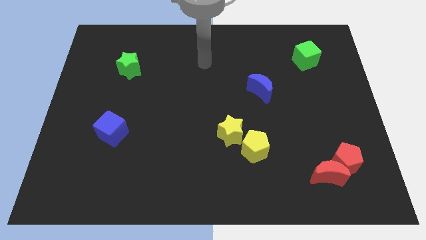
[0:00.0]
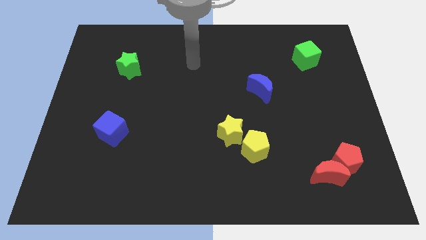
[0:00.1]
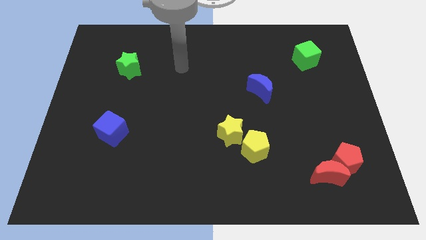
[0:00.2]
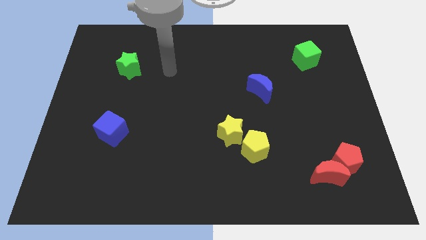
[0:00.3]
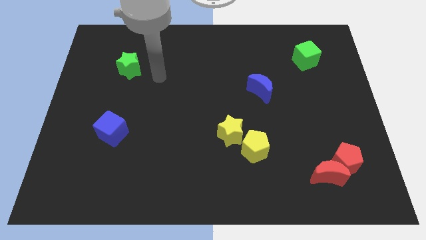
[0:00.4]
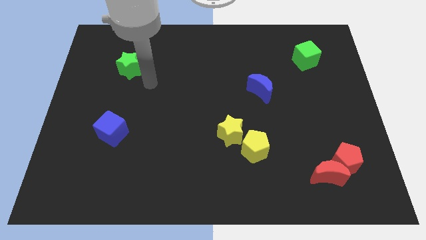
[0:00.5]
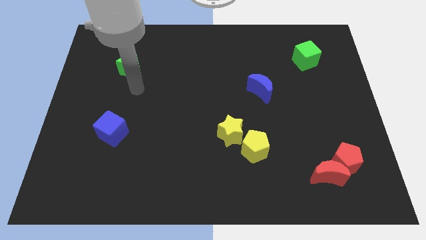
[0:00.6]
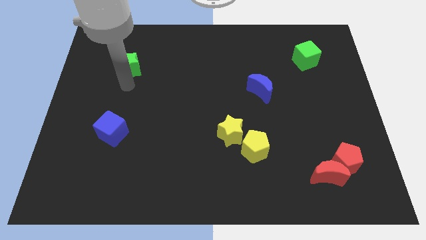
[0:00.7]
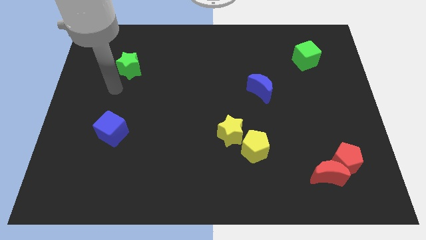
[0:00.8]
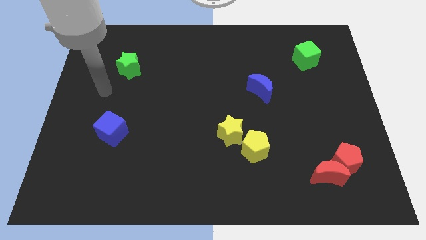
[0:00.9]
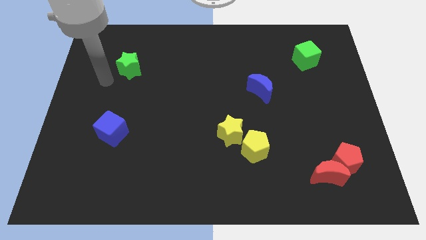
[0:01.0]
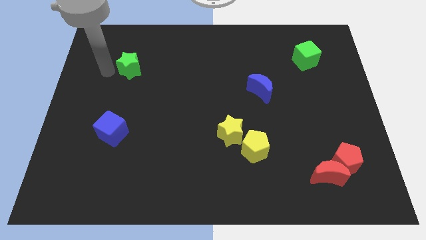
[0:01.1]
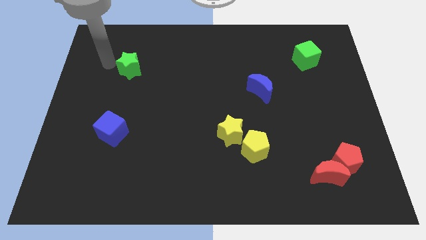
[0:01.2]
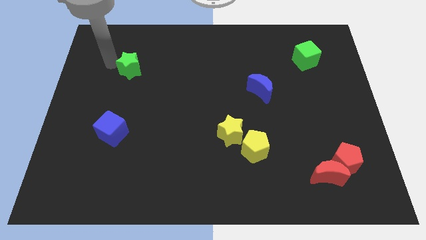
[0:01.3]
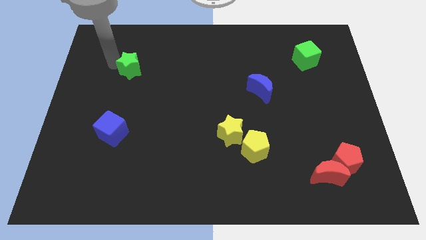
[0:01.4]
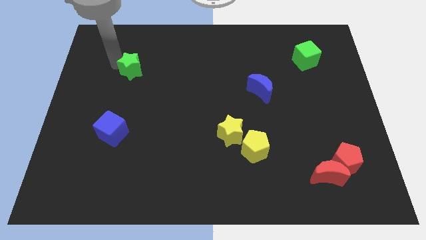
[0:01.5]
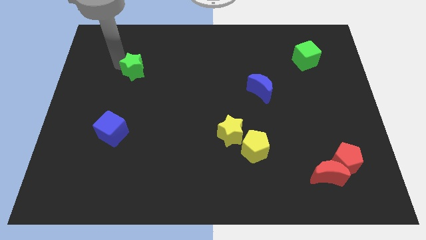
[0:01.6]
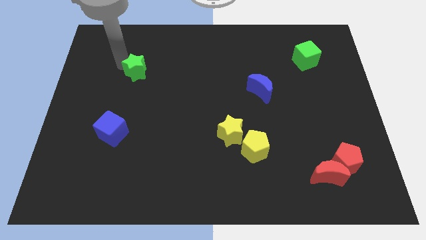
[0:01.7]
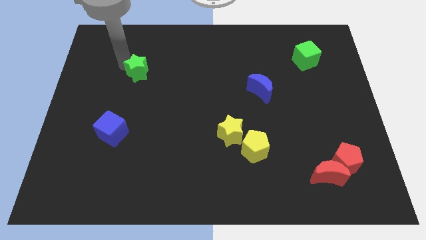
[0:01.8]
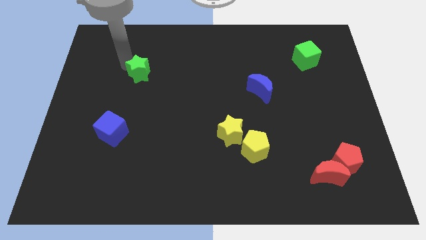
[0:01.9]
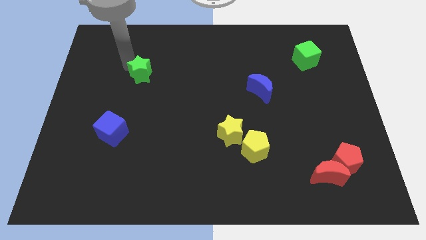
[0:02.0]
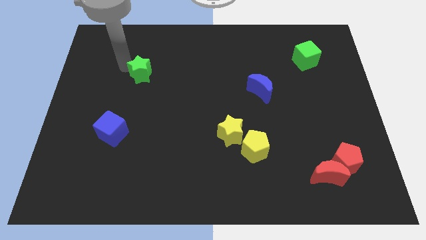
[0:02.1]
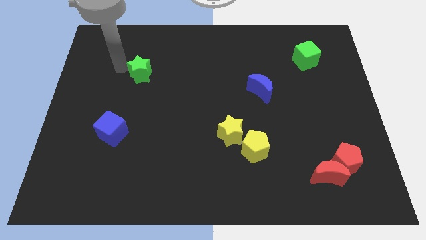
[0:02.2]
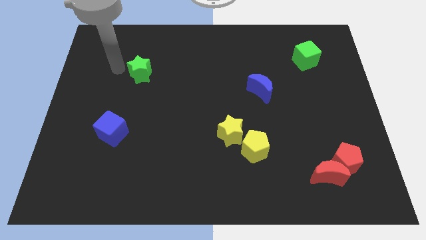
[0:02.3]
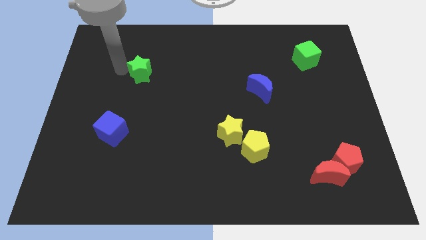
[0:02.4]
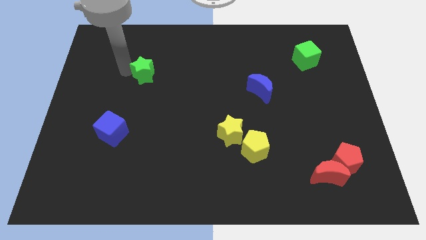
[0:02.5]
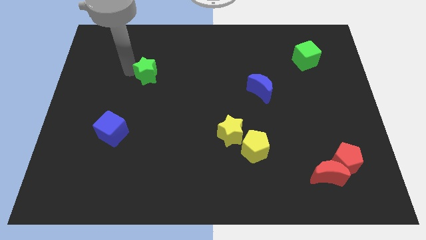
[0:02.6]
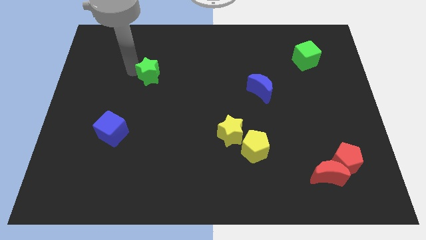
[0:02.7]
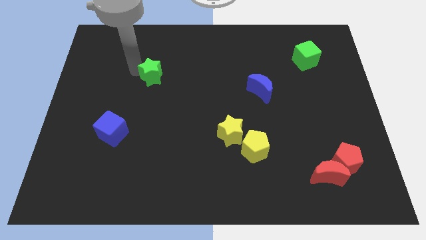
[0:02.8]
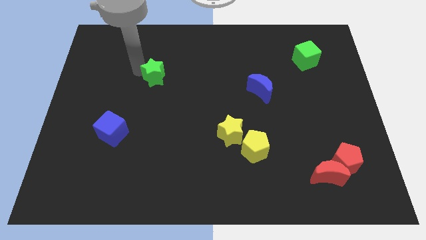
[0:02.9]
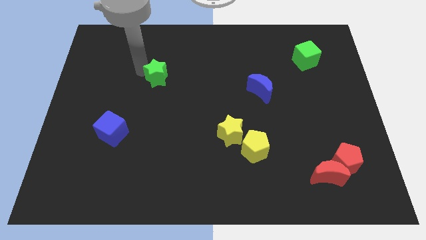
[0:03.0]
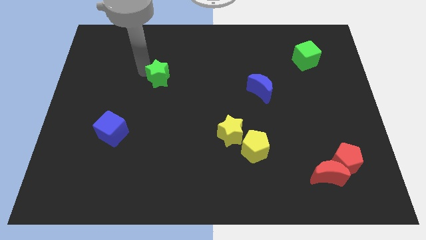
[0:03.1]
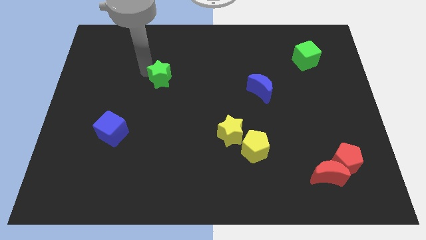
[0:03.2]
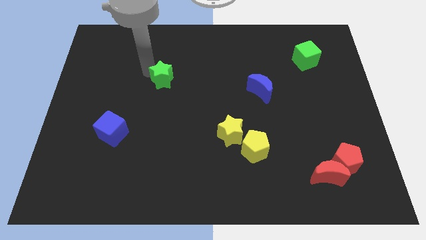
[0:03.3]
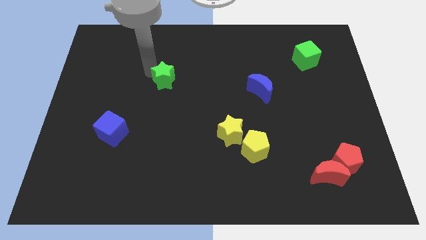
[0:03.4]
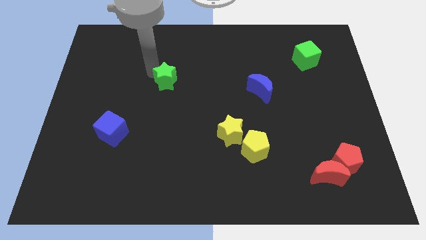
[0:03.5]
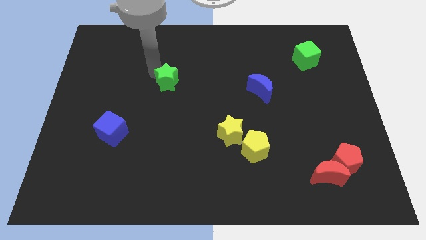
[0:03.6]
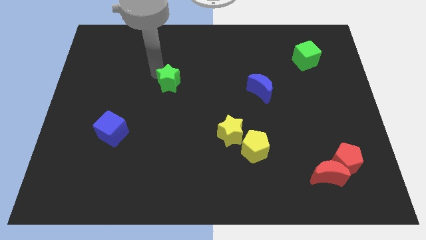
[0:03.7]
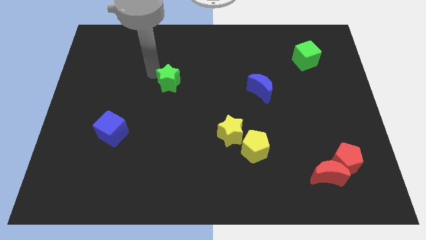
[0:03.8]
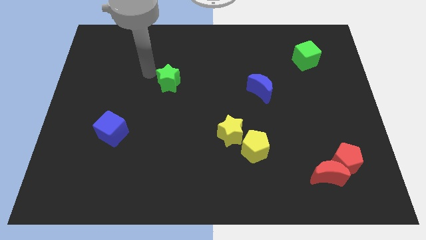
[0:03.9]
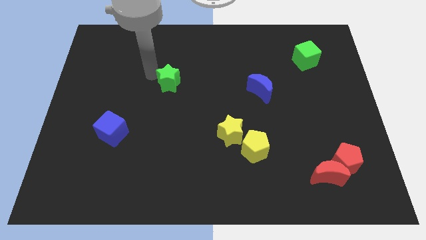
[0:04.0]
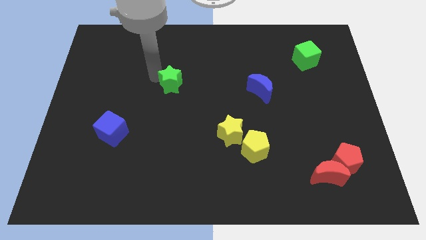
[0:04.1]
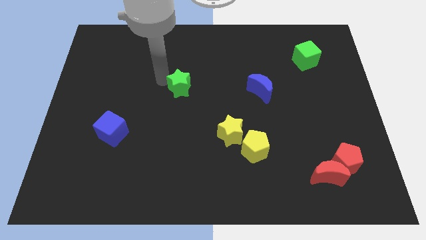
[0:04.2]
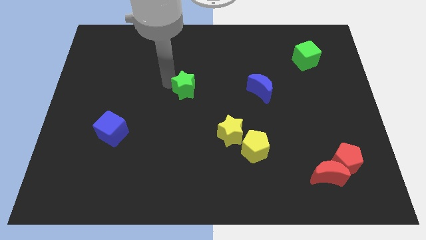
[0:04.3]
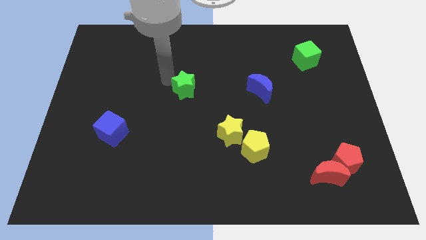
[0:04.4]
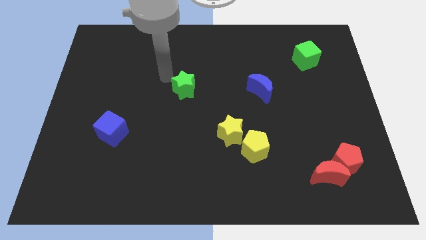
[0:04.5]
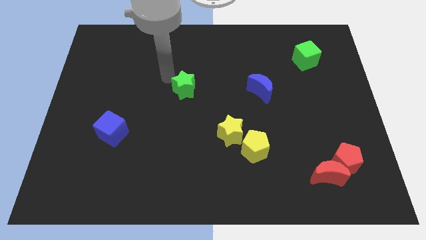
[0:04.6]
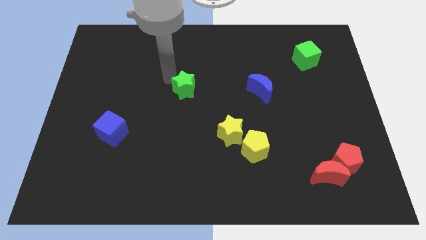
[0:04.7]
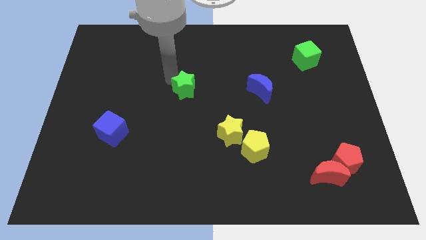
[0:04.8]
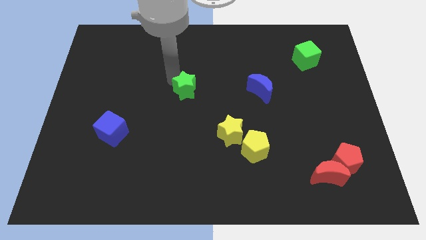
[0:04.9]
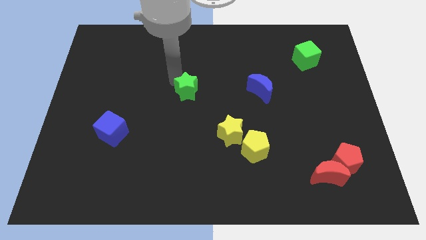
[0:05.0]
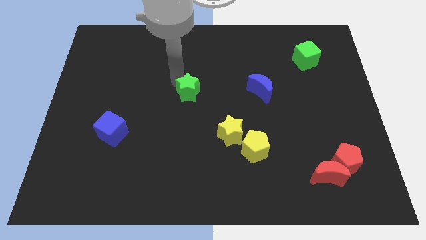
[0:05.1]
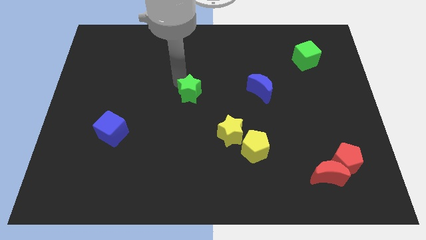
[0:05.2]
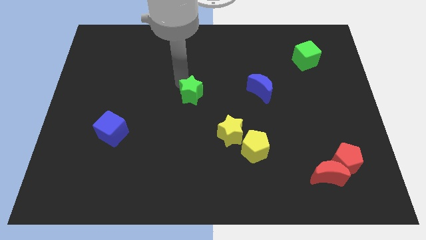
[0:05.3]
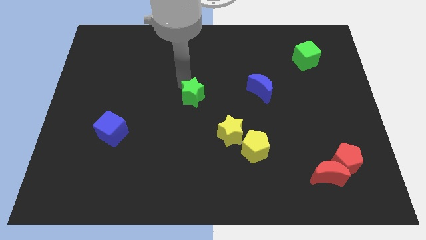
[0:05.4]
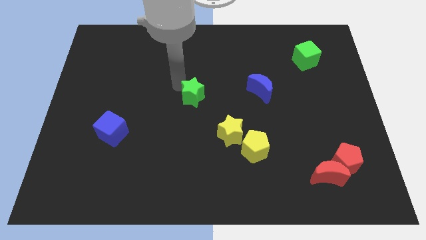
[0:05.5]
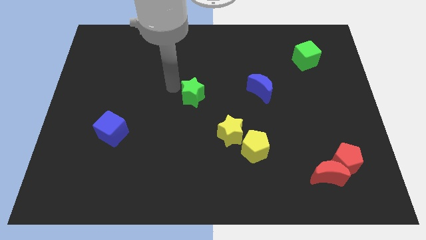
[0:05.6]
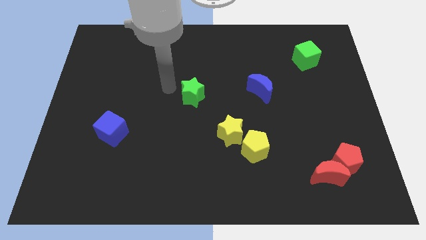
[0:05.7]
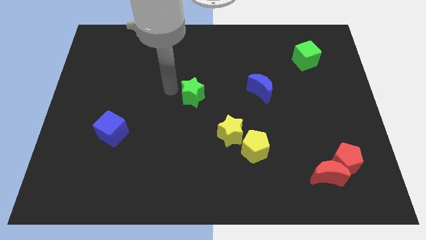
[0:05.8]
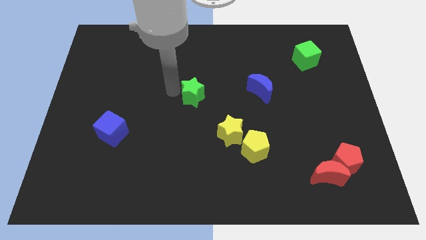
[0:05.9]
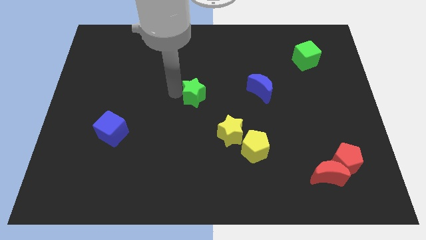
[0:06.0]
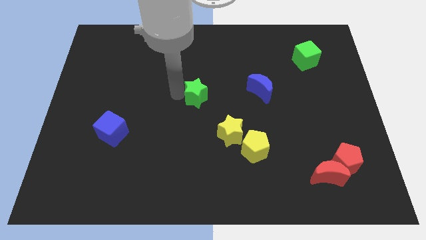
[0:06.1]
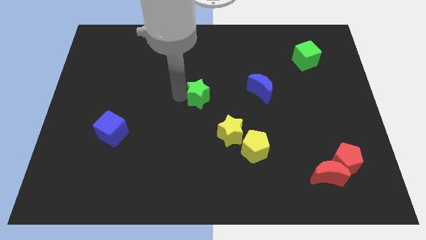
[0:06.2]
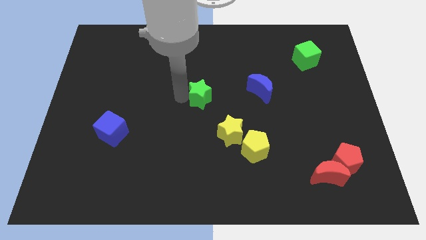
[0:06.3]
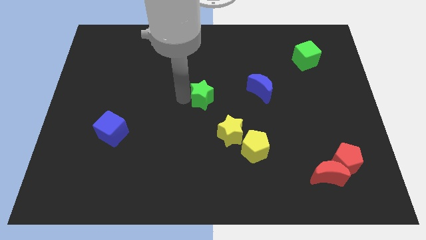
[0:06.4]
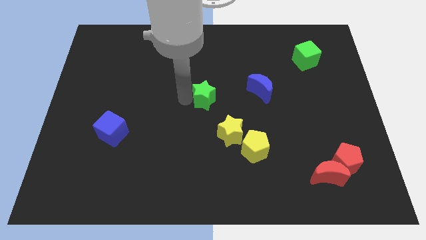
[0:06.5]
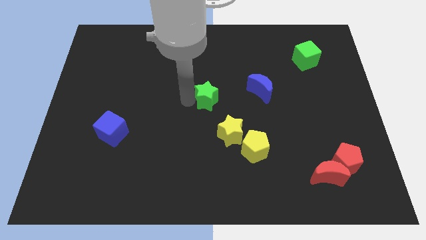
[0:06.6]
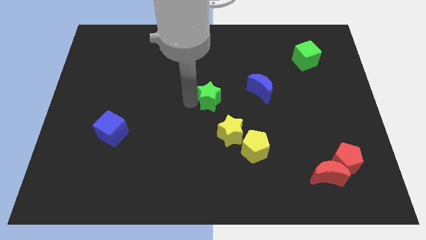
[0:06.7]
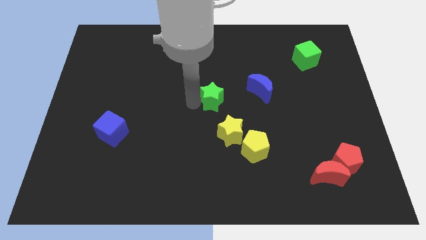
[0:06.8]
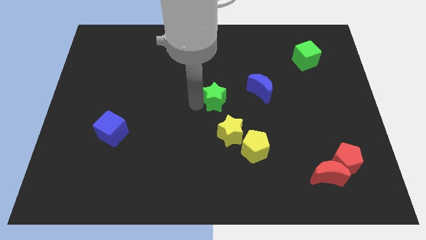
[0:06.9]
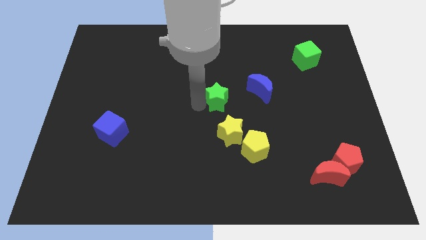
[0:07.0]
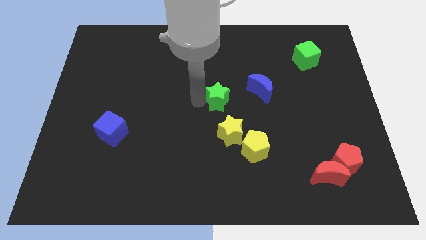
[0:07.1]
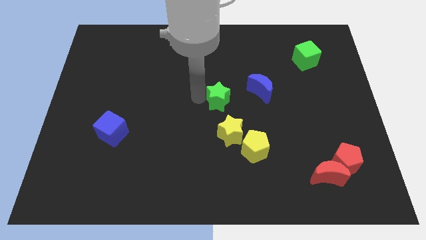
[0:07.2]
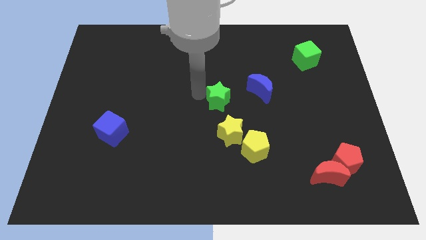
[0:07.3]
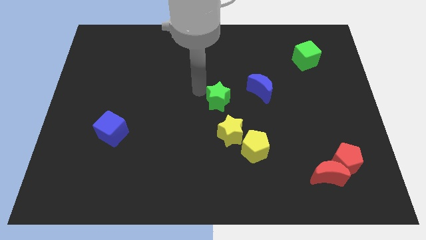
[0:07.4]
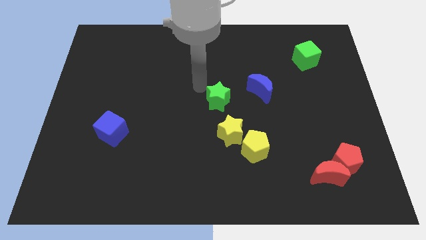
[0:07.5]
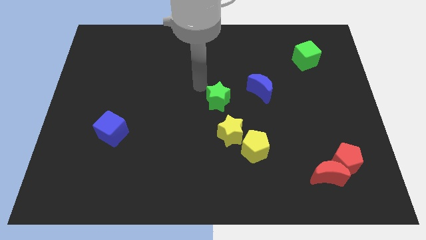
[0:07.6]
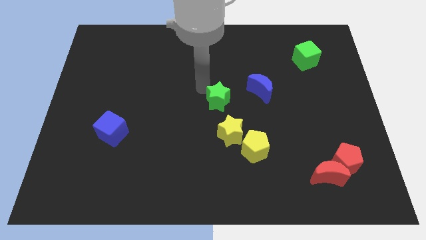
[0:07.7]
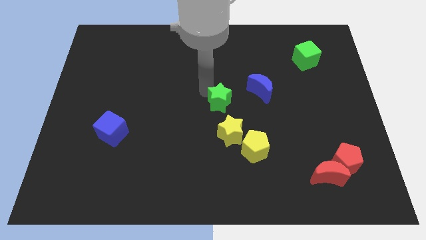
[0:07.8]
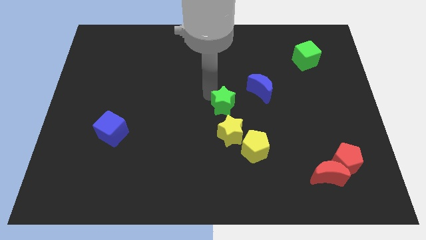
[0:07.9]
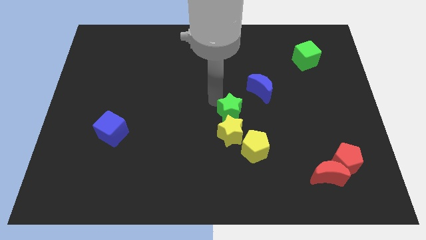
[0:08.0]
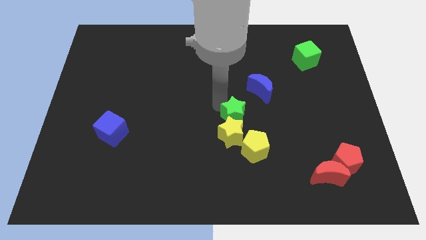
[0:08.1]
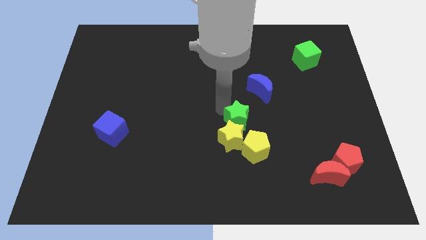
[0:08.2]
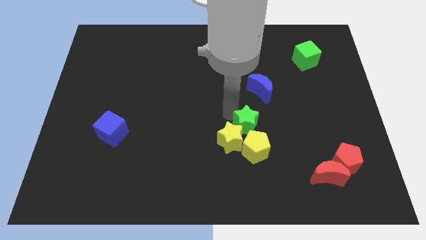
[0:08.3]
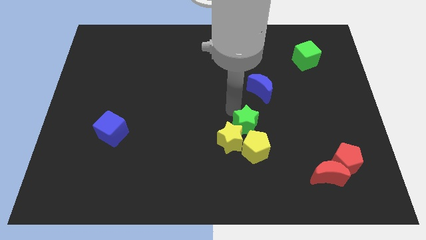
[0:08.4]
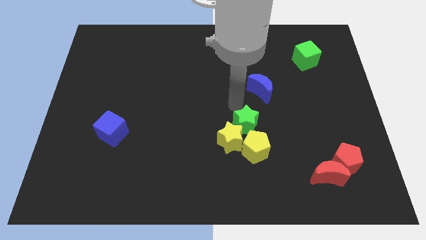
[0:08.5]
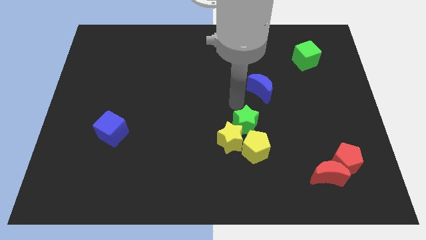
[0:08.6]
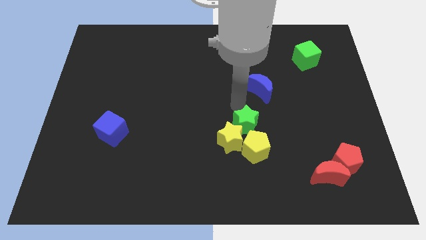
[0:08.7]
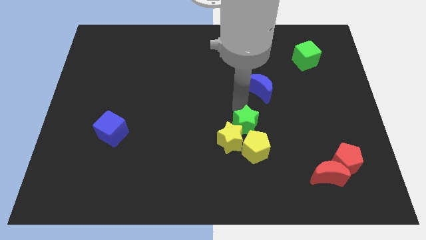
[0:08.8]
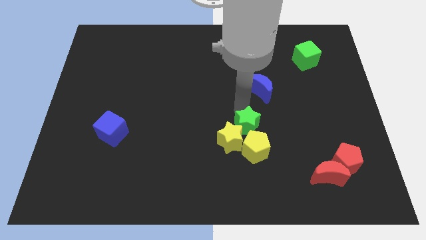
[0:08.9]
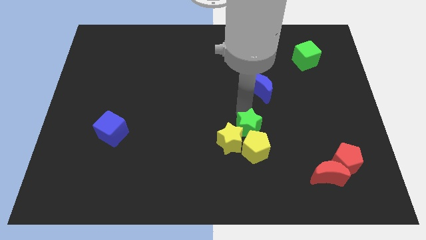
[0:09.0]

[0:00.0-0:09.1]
push the green star next to the yellow pentagon
